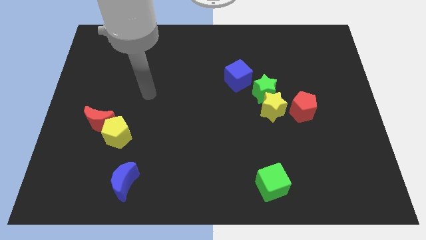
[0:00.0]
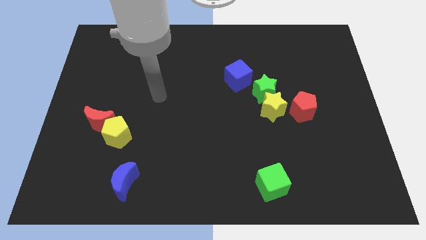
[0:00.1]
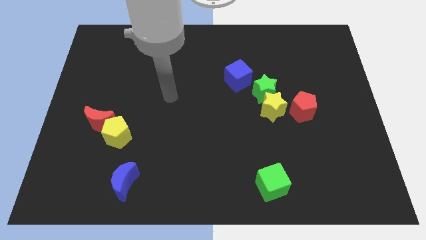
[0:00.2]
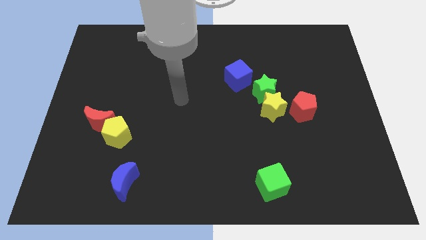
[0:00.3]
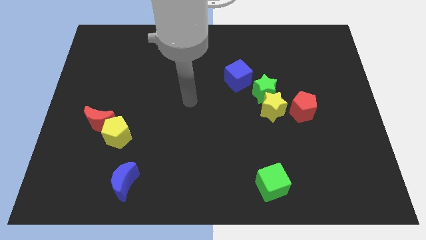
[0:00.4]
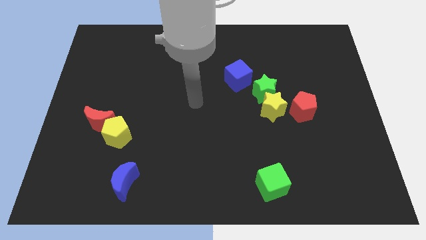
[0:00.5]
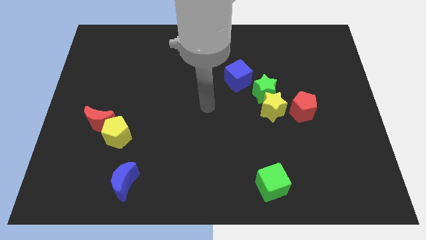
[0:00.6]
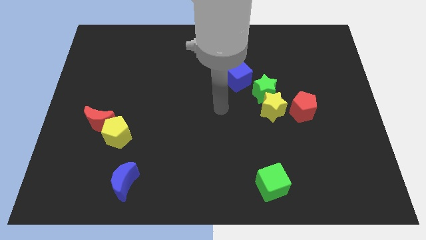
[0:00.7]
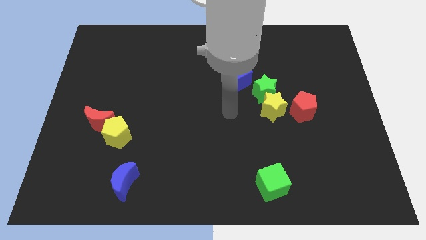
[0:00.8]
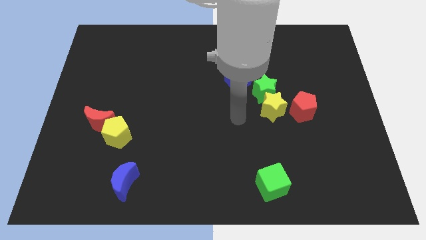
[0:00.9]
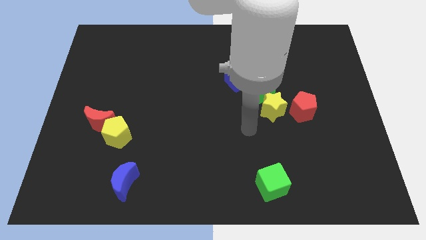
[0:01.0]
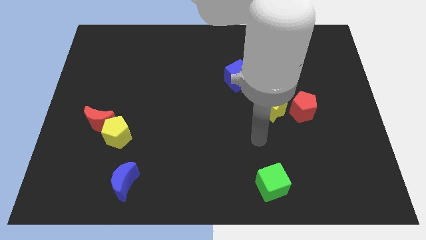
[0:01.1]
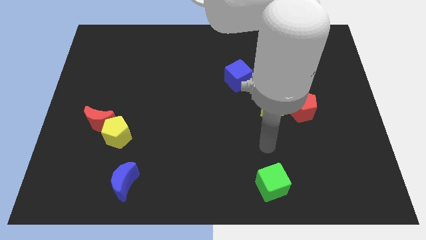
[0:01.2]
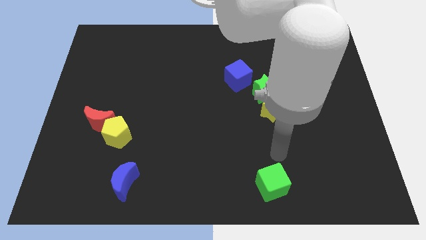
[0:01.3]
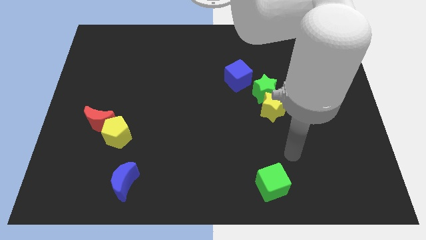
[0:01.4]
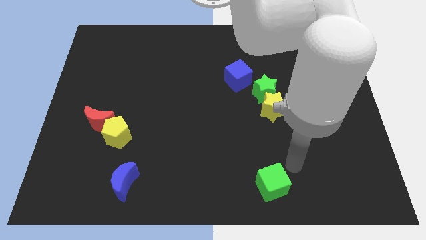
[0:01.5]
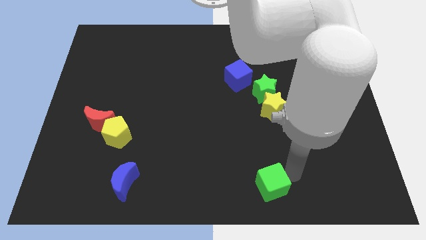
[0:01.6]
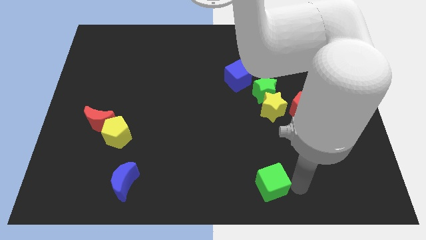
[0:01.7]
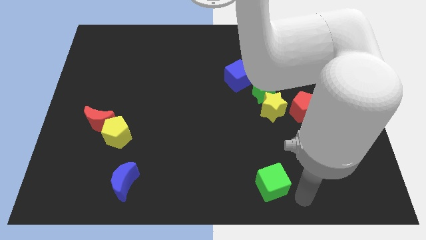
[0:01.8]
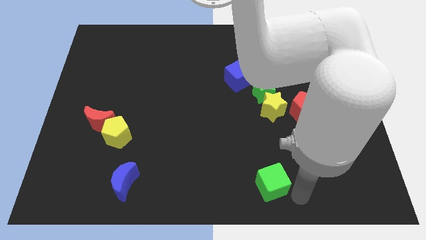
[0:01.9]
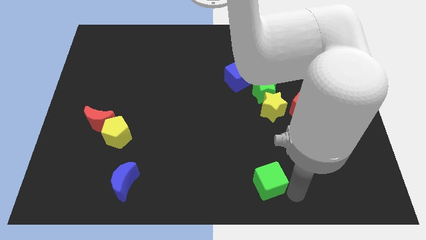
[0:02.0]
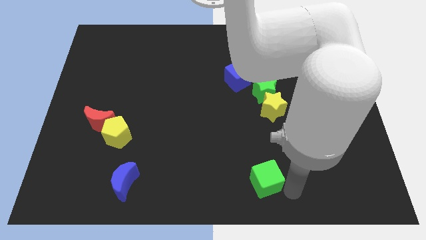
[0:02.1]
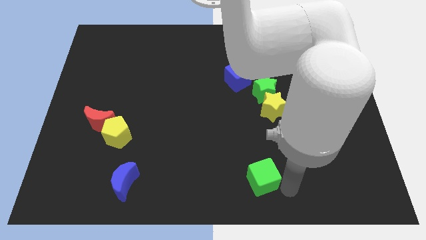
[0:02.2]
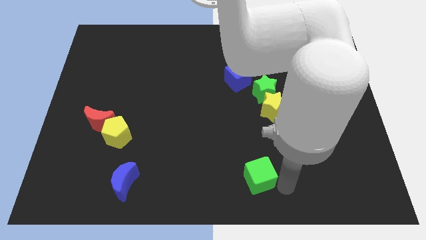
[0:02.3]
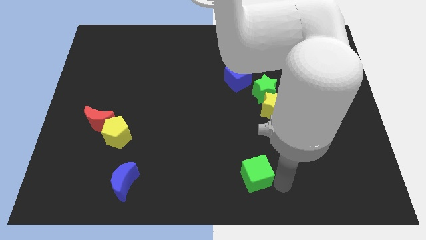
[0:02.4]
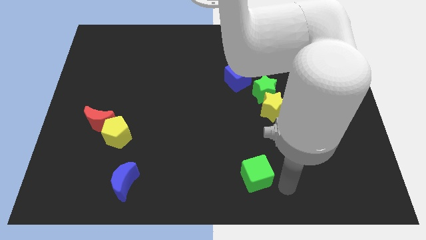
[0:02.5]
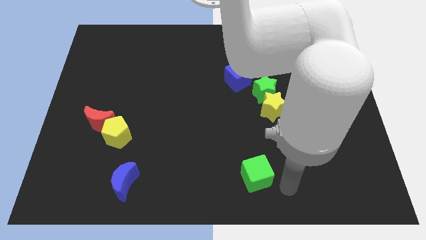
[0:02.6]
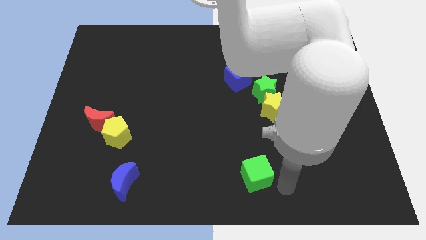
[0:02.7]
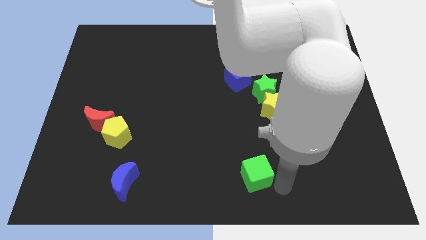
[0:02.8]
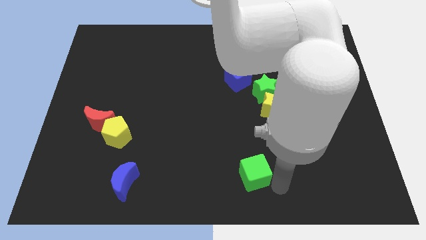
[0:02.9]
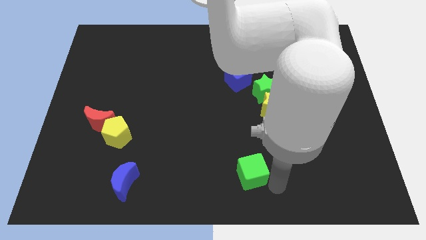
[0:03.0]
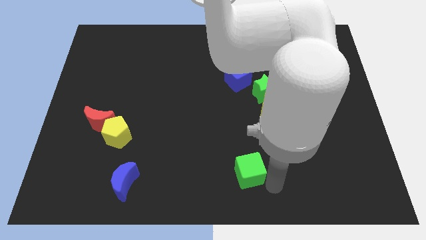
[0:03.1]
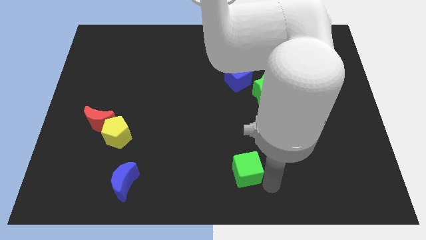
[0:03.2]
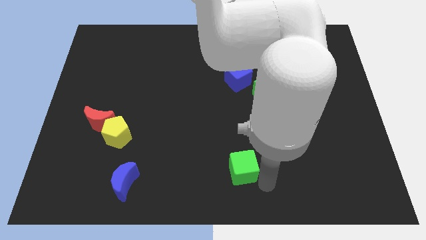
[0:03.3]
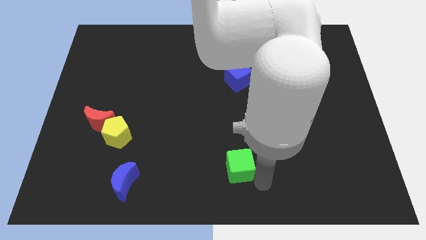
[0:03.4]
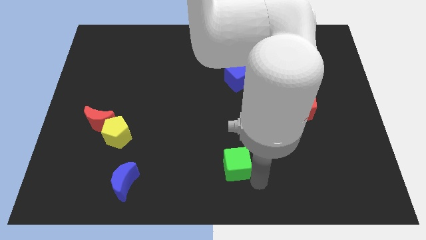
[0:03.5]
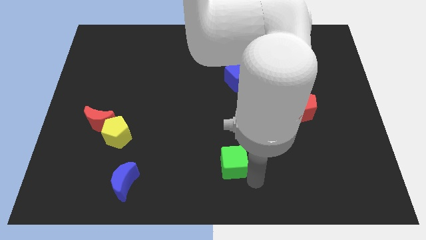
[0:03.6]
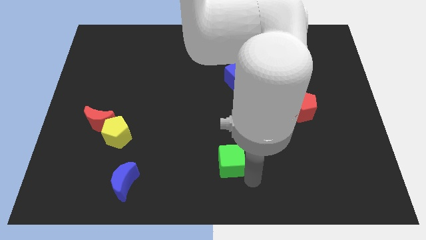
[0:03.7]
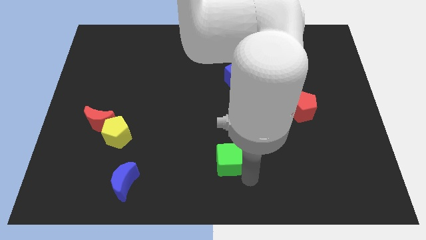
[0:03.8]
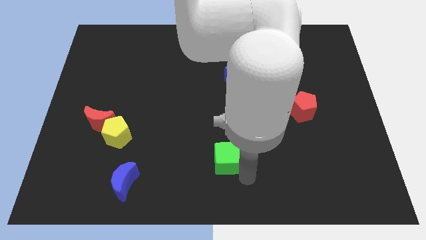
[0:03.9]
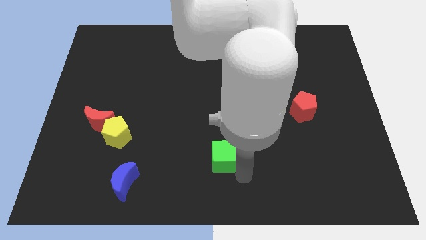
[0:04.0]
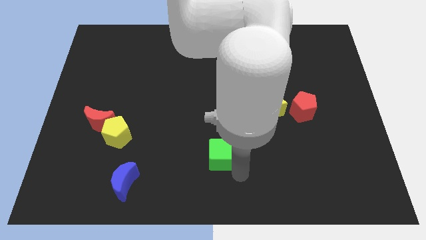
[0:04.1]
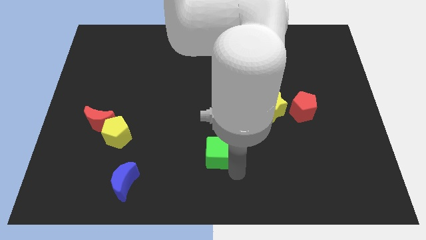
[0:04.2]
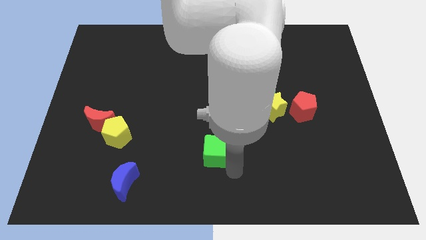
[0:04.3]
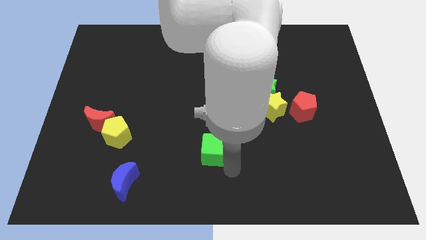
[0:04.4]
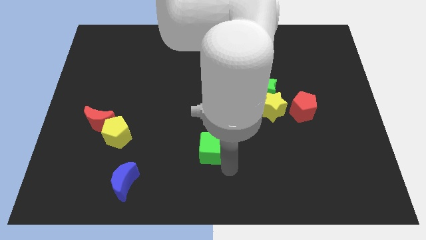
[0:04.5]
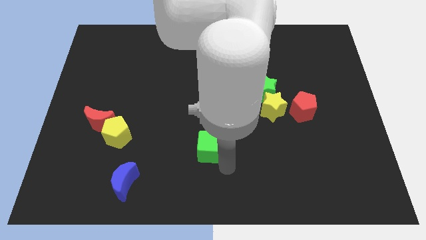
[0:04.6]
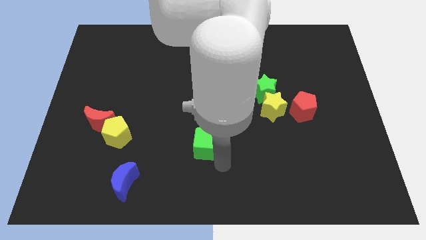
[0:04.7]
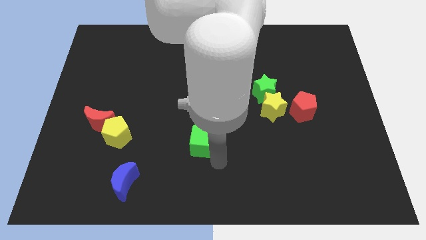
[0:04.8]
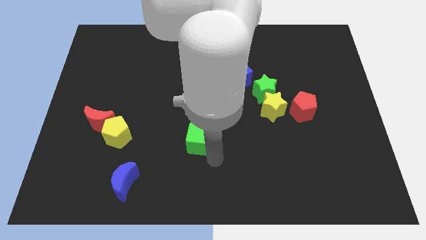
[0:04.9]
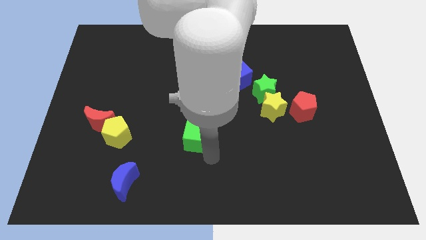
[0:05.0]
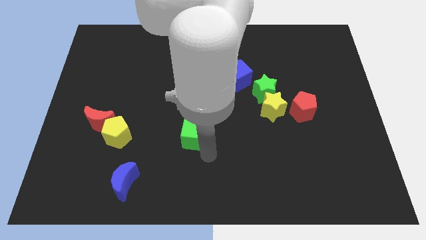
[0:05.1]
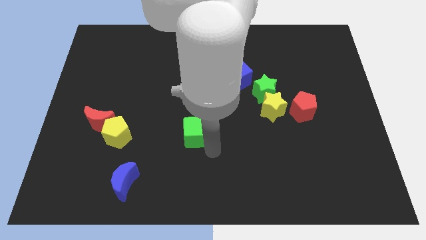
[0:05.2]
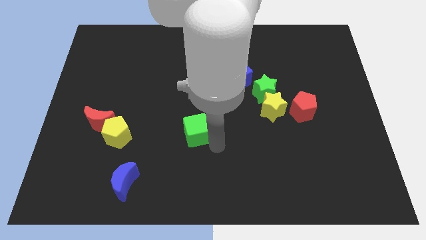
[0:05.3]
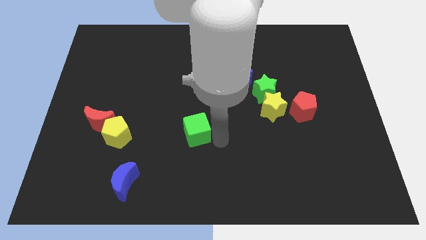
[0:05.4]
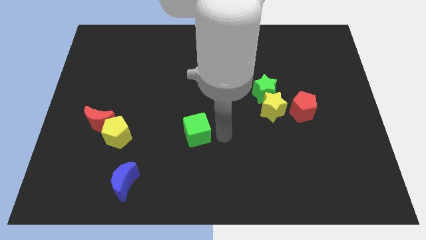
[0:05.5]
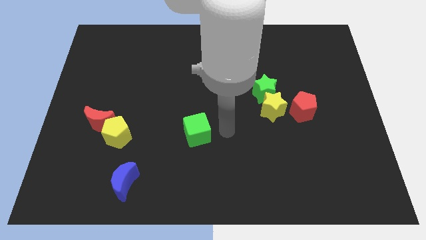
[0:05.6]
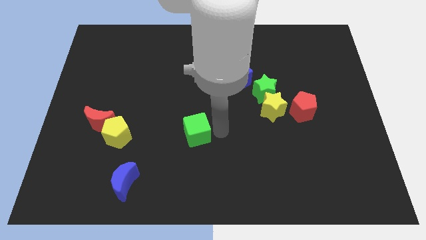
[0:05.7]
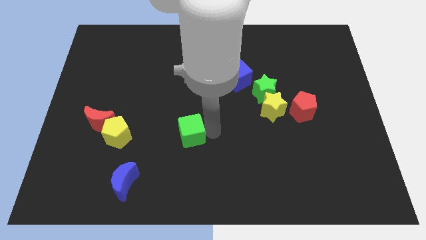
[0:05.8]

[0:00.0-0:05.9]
push the green cube just right of the yellow pentagon

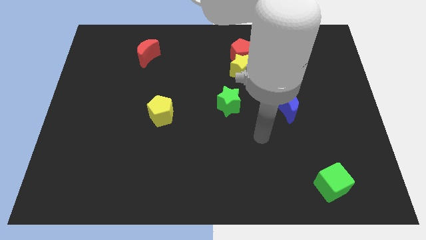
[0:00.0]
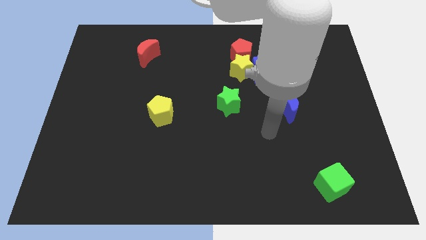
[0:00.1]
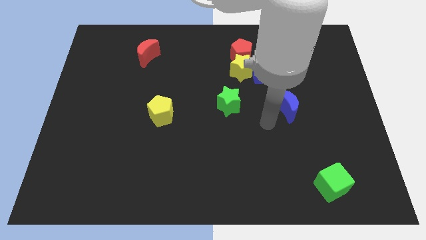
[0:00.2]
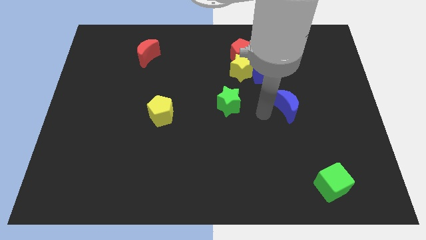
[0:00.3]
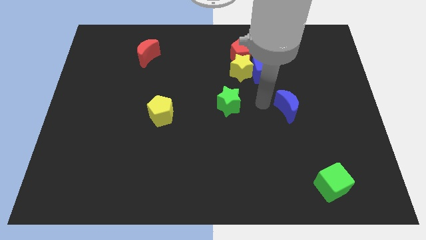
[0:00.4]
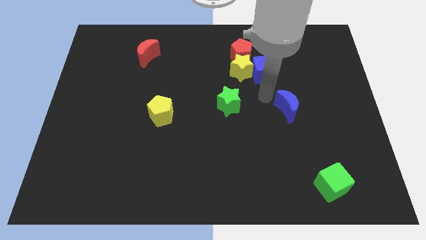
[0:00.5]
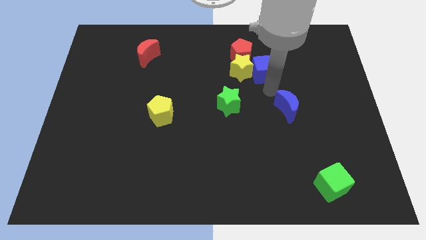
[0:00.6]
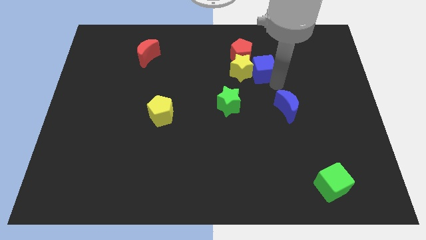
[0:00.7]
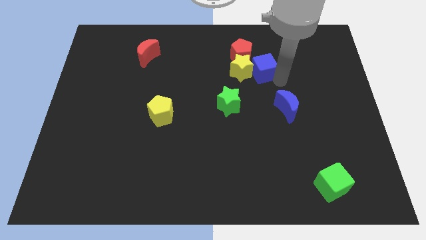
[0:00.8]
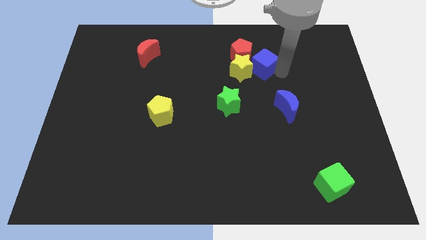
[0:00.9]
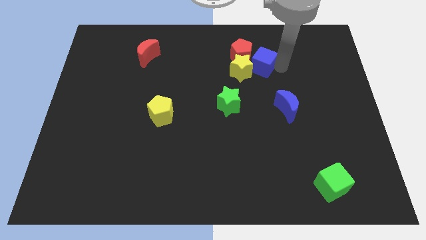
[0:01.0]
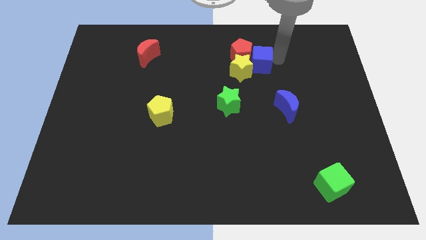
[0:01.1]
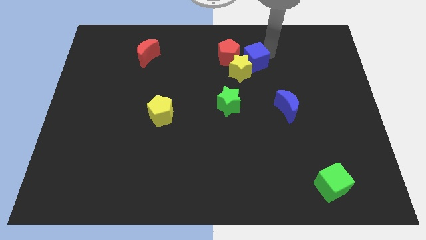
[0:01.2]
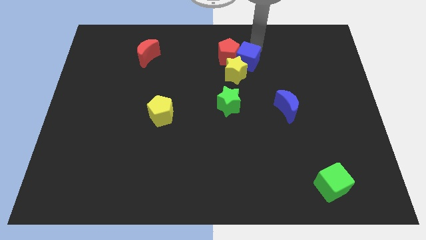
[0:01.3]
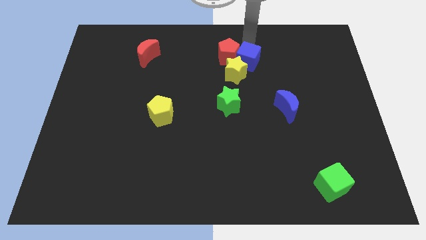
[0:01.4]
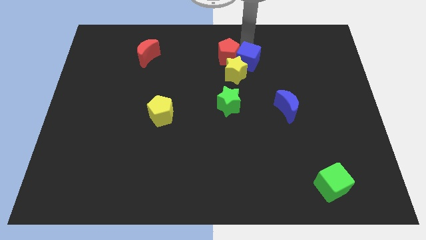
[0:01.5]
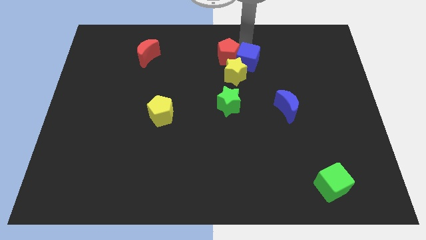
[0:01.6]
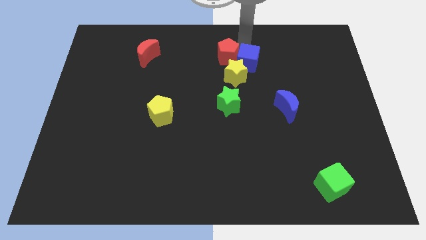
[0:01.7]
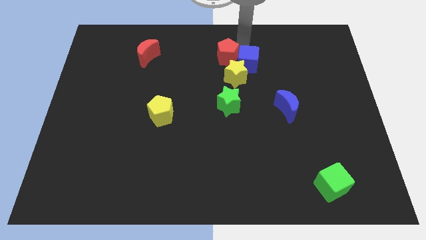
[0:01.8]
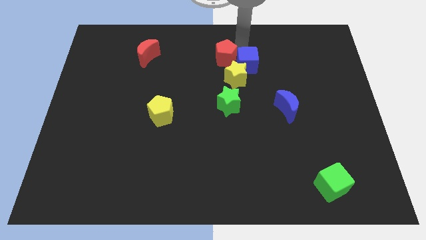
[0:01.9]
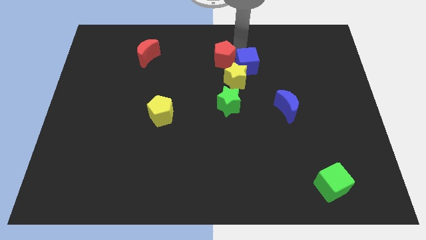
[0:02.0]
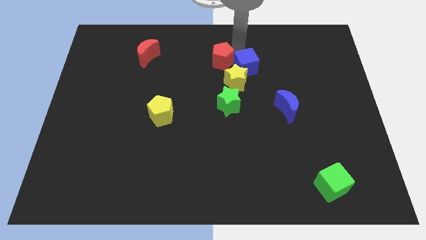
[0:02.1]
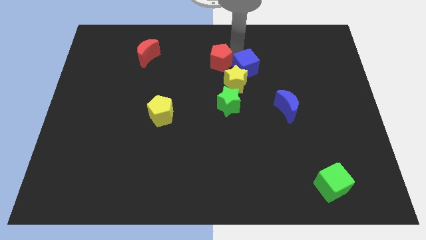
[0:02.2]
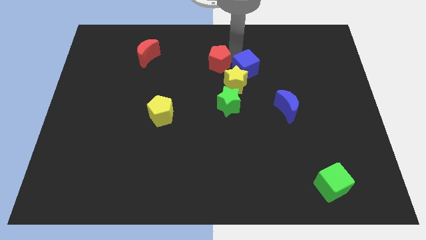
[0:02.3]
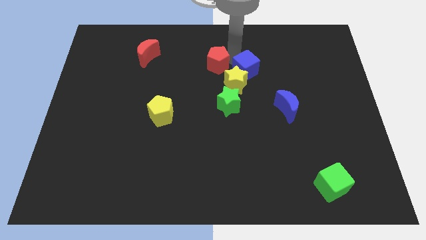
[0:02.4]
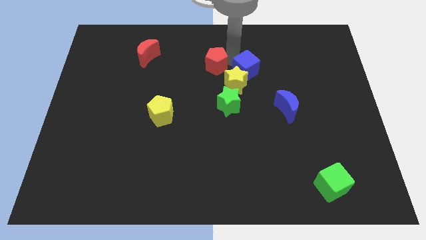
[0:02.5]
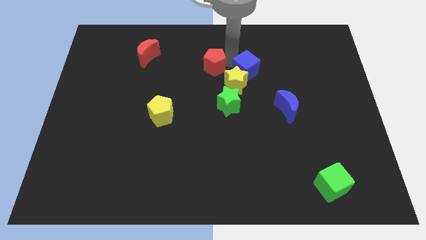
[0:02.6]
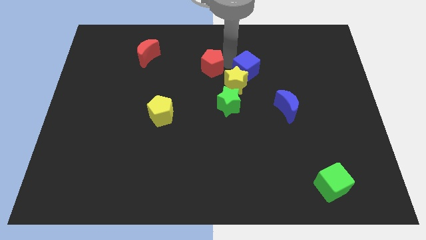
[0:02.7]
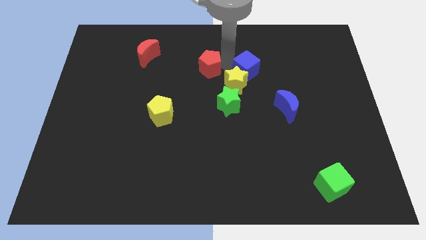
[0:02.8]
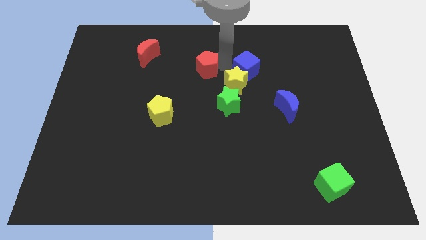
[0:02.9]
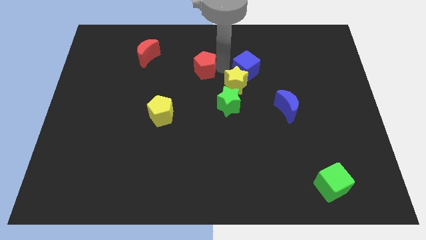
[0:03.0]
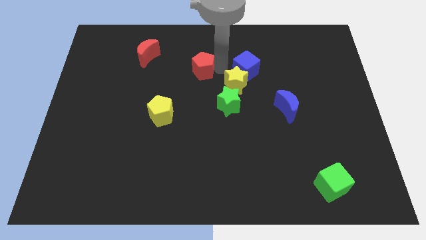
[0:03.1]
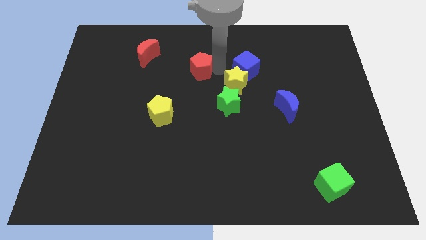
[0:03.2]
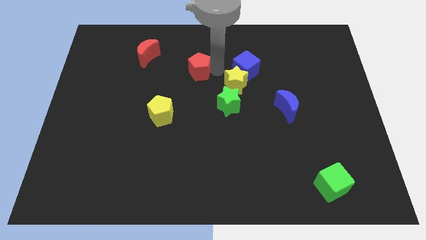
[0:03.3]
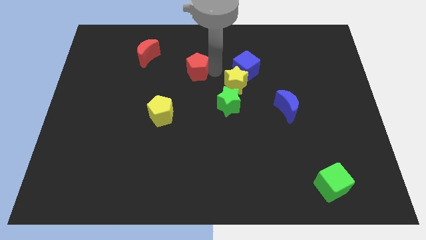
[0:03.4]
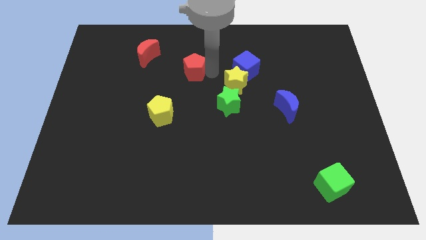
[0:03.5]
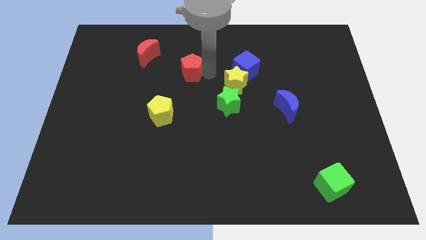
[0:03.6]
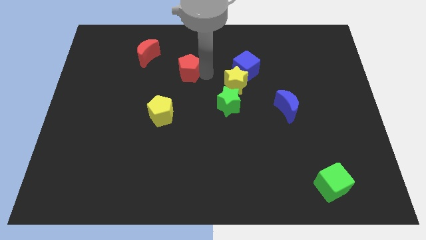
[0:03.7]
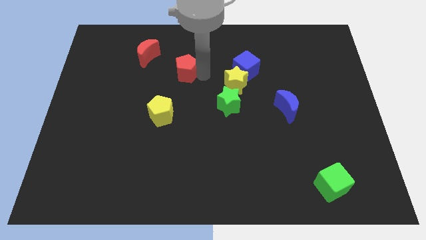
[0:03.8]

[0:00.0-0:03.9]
slide the red pentagon to the bottom right side of the red moon
